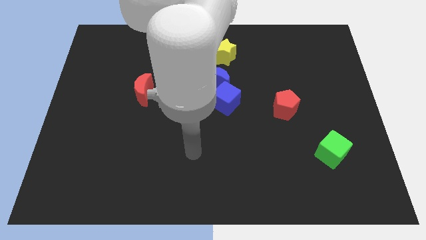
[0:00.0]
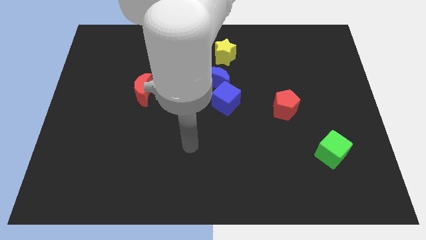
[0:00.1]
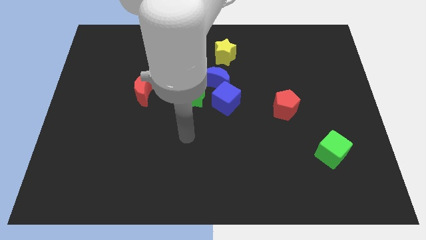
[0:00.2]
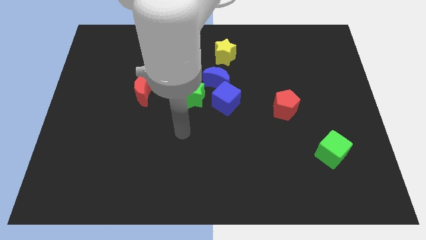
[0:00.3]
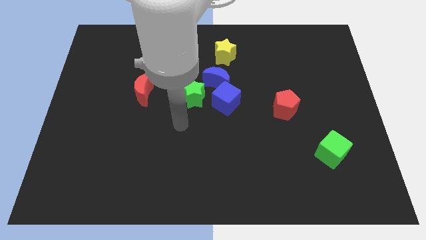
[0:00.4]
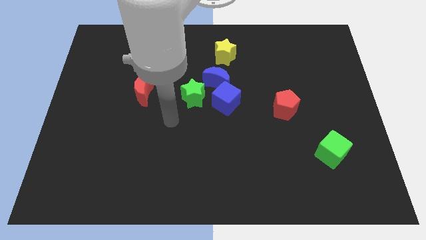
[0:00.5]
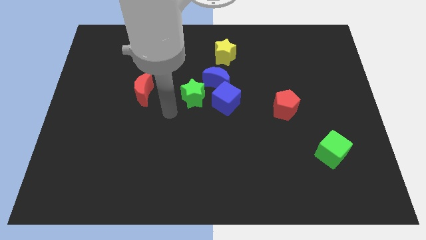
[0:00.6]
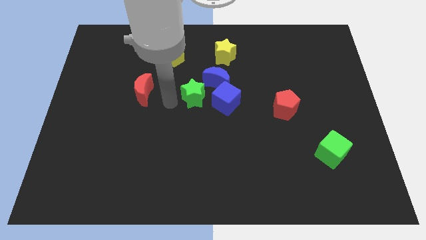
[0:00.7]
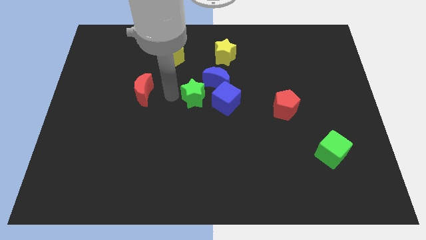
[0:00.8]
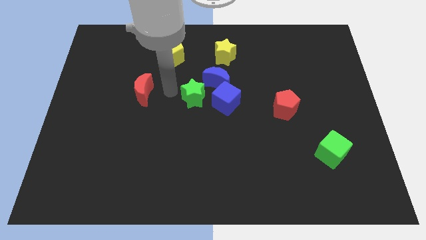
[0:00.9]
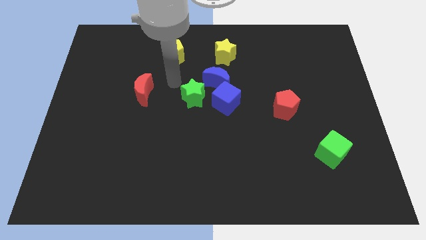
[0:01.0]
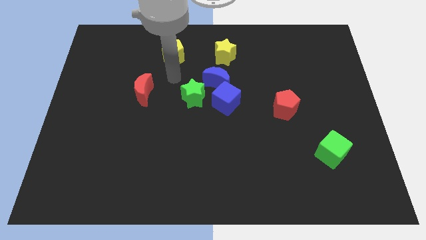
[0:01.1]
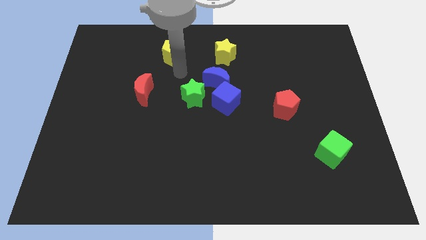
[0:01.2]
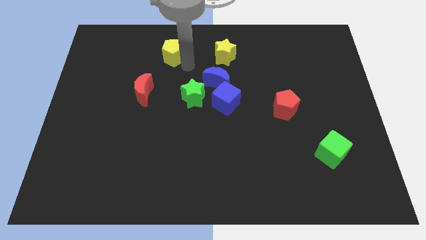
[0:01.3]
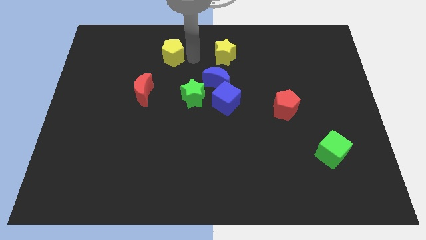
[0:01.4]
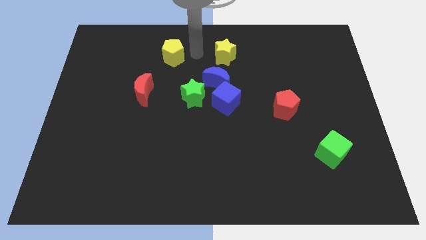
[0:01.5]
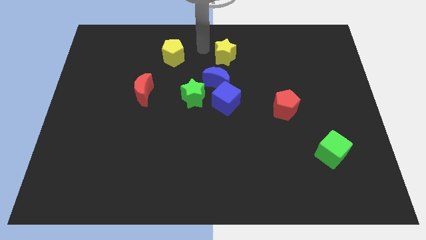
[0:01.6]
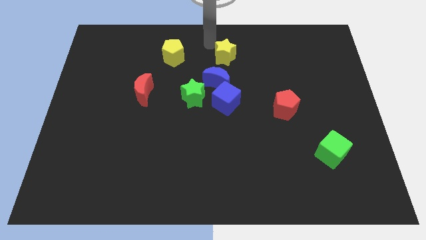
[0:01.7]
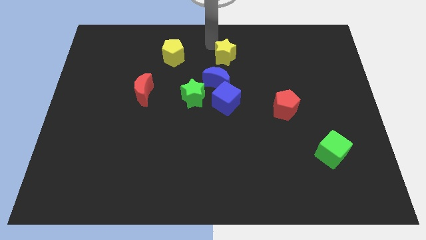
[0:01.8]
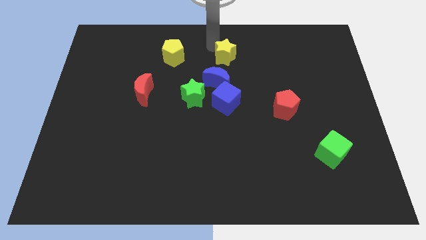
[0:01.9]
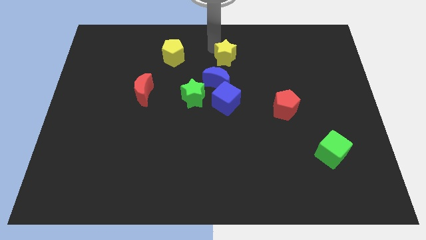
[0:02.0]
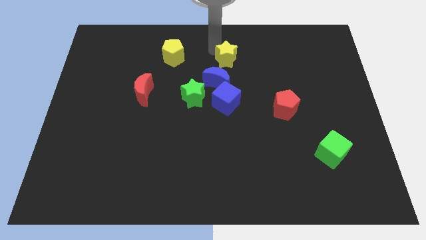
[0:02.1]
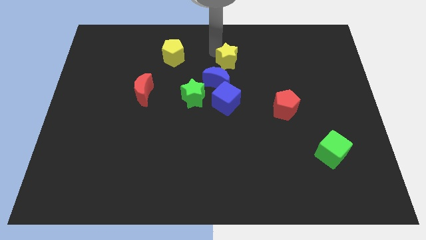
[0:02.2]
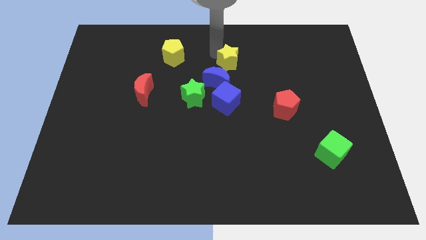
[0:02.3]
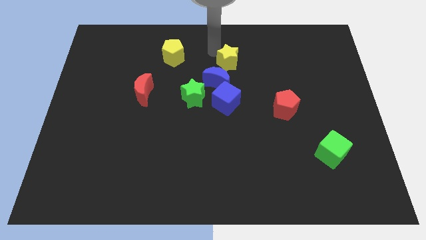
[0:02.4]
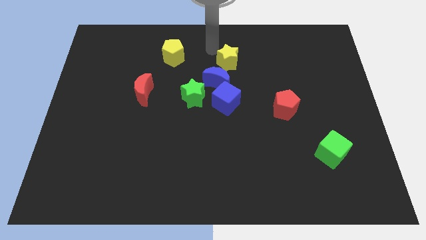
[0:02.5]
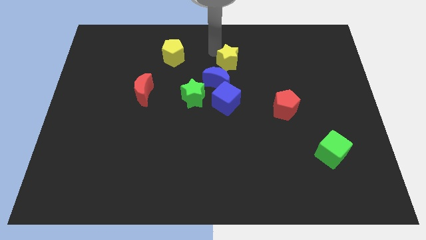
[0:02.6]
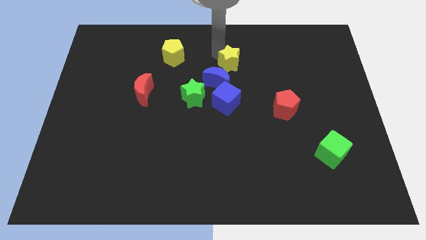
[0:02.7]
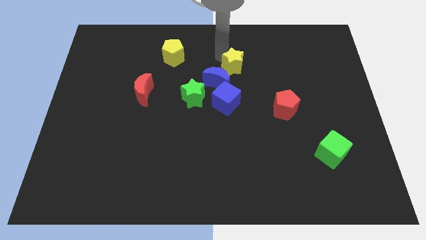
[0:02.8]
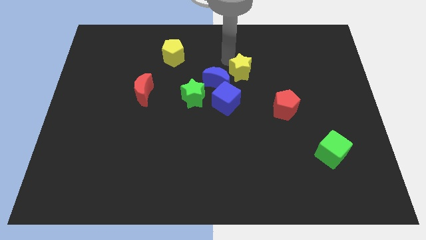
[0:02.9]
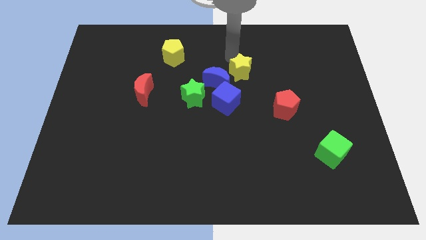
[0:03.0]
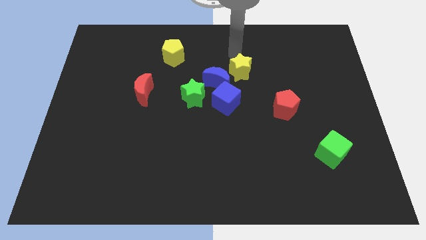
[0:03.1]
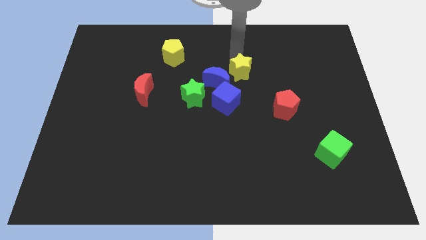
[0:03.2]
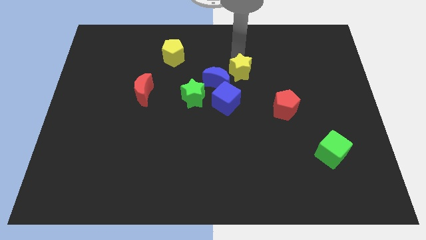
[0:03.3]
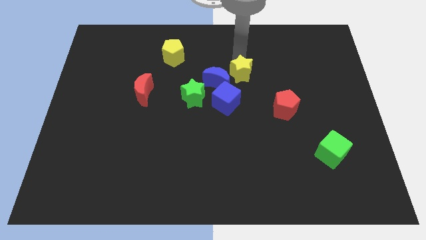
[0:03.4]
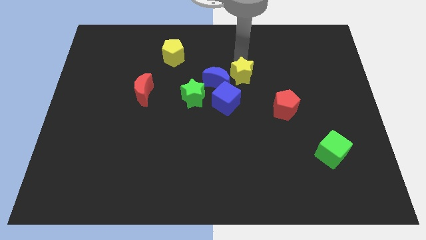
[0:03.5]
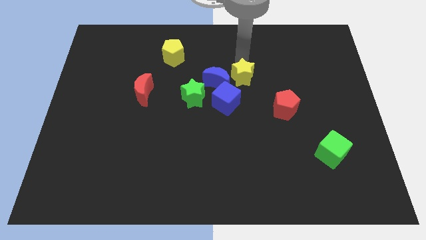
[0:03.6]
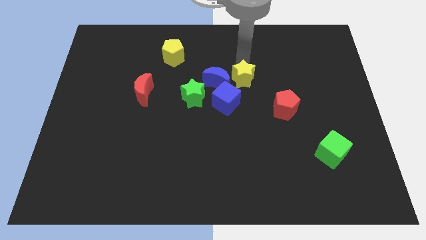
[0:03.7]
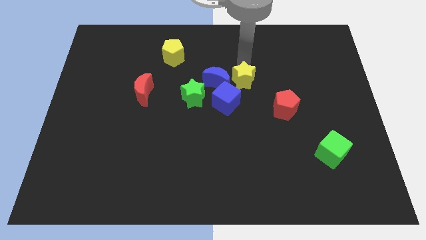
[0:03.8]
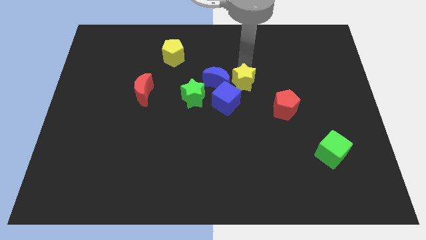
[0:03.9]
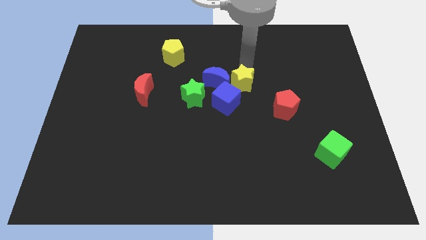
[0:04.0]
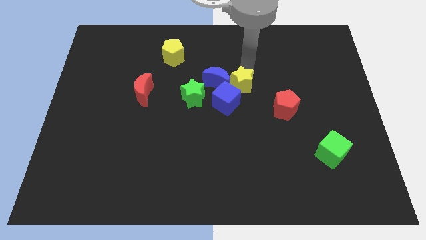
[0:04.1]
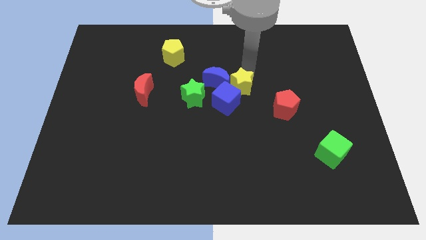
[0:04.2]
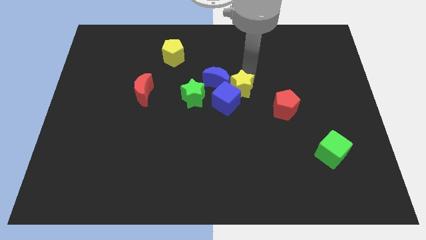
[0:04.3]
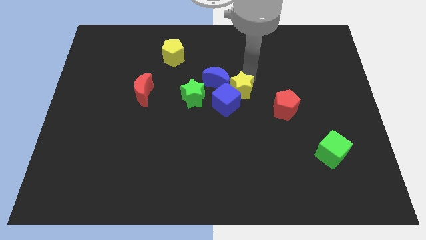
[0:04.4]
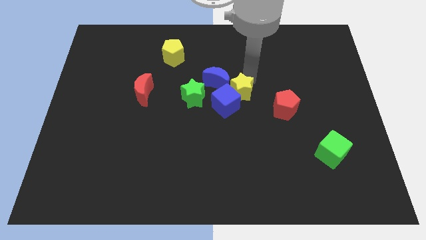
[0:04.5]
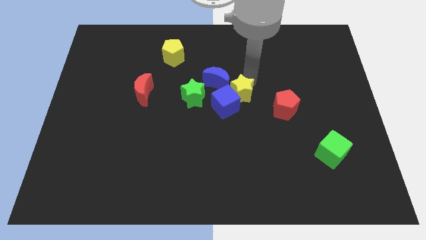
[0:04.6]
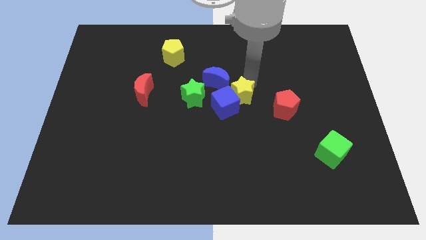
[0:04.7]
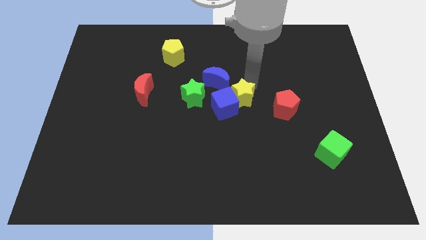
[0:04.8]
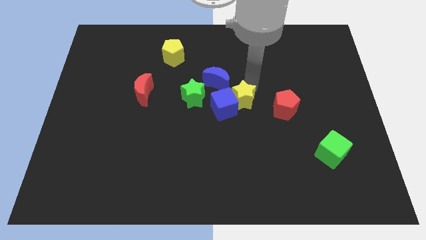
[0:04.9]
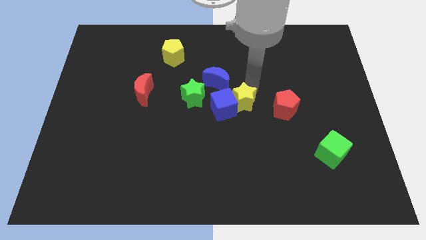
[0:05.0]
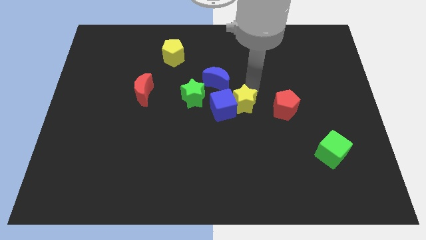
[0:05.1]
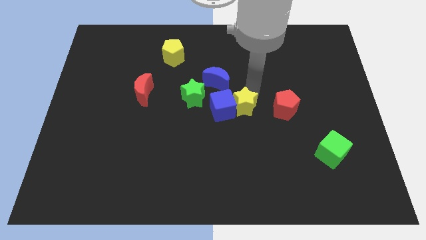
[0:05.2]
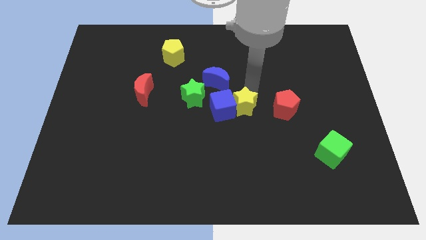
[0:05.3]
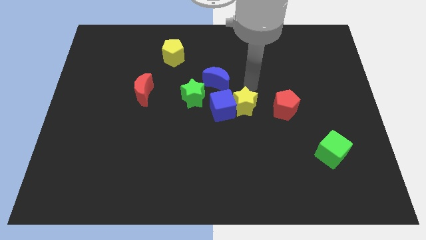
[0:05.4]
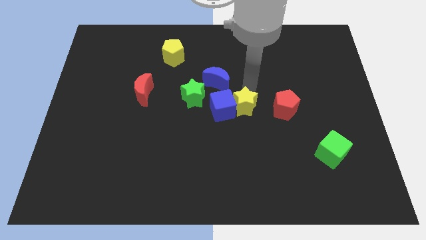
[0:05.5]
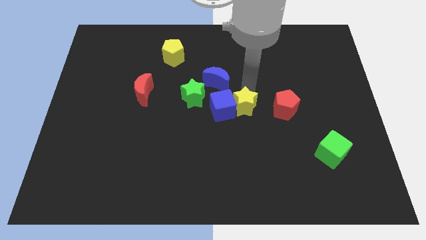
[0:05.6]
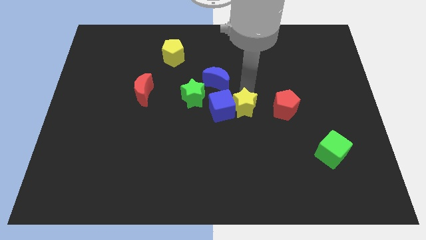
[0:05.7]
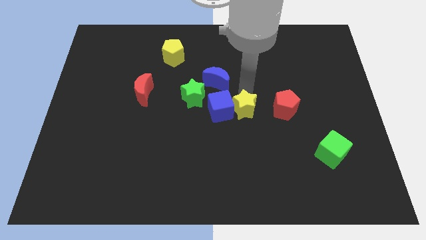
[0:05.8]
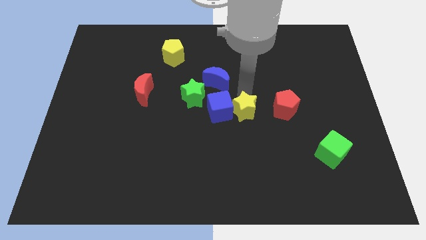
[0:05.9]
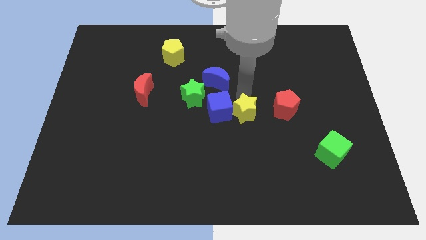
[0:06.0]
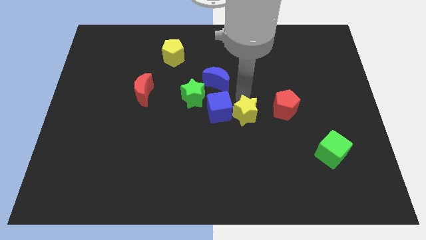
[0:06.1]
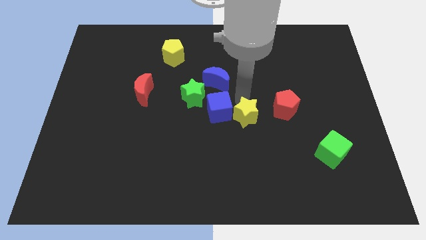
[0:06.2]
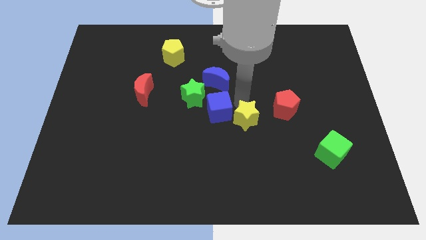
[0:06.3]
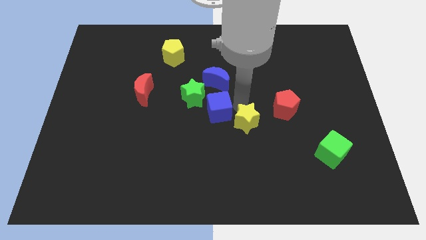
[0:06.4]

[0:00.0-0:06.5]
slide the yellow star downwards

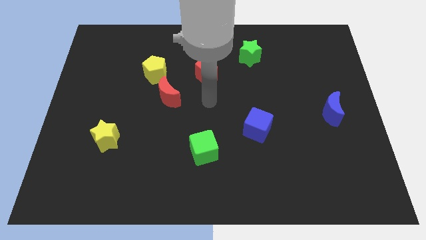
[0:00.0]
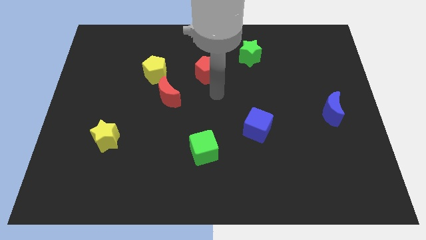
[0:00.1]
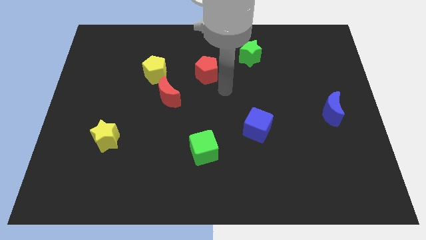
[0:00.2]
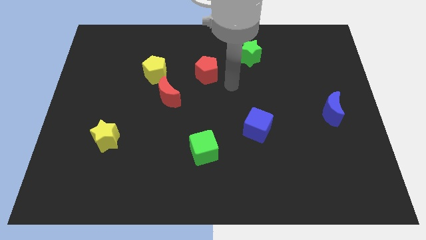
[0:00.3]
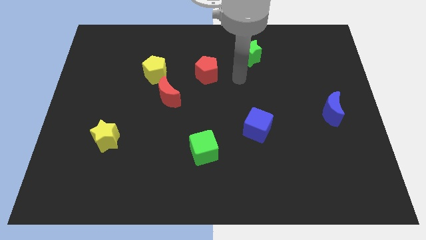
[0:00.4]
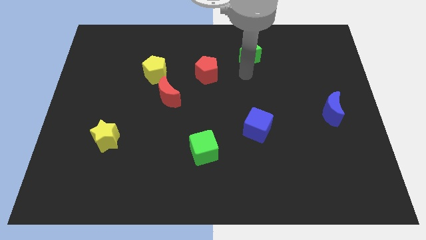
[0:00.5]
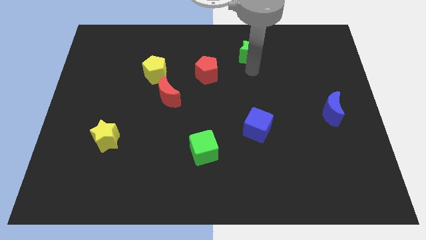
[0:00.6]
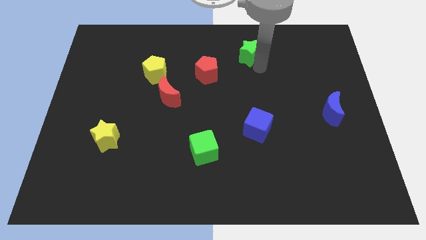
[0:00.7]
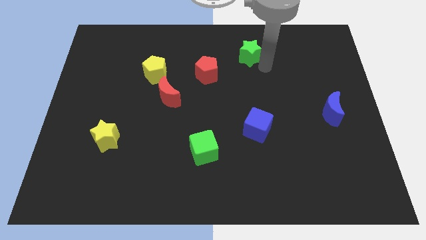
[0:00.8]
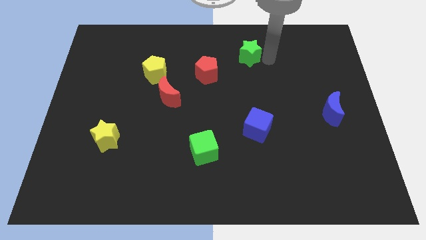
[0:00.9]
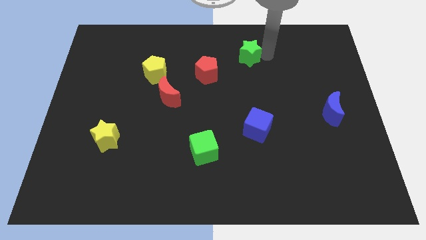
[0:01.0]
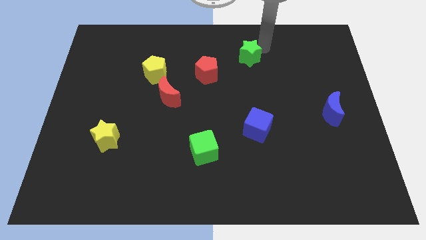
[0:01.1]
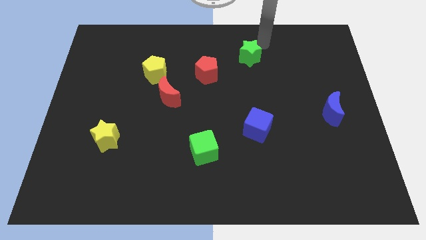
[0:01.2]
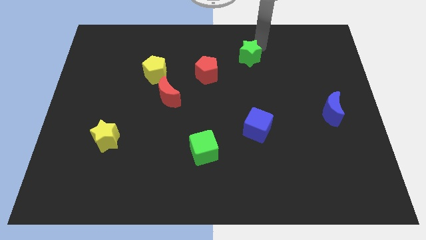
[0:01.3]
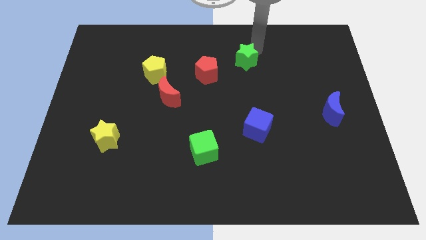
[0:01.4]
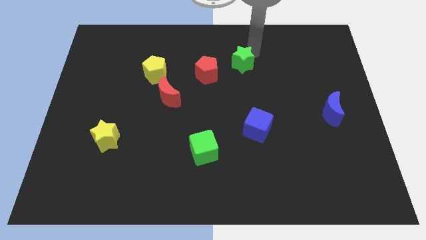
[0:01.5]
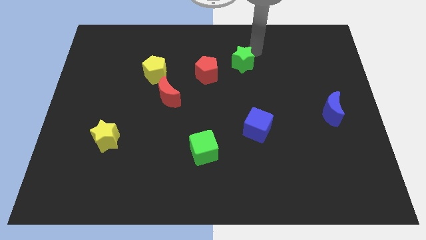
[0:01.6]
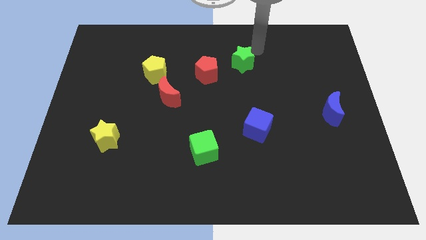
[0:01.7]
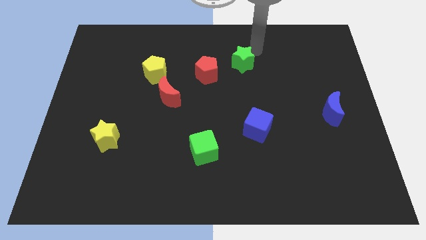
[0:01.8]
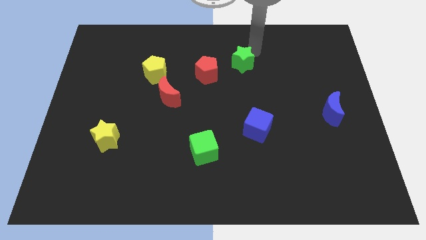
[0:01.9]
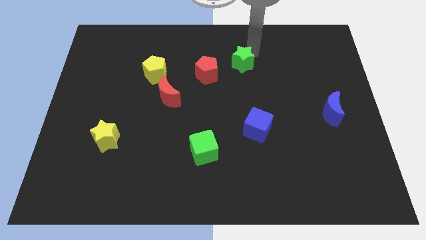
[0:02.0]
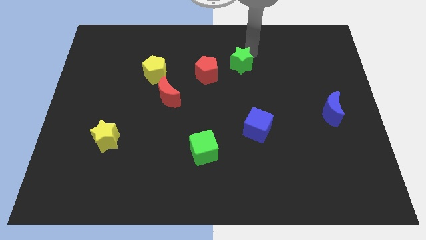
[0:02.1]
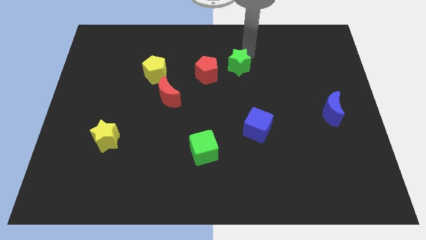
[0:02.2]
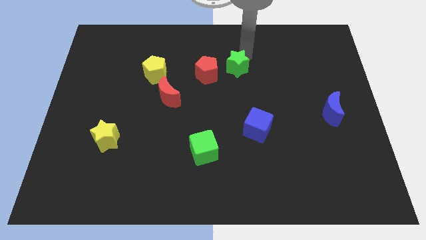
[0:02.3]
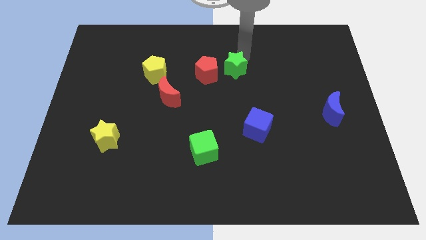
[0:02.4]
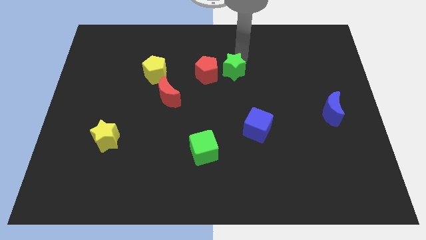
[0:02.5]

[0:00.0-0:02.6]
slightly move the green star downwards and left diagonally
